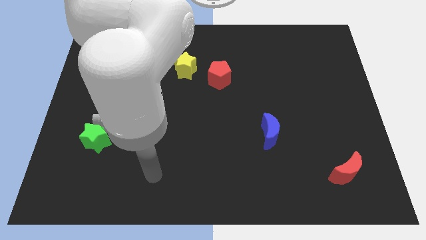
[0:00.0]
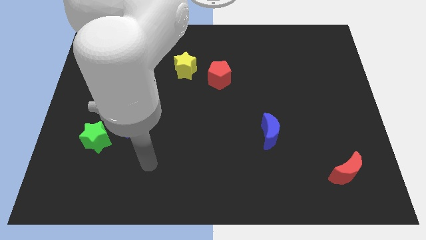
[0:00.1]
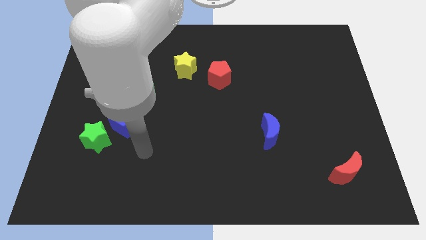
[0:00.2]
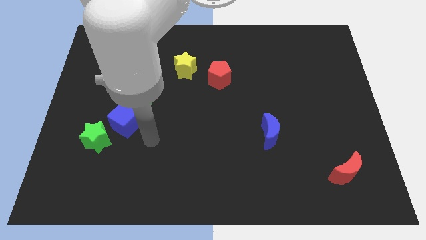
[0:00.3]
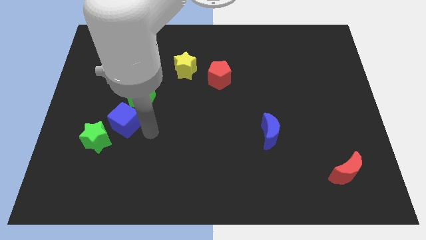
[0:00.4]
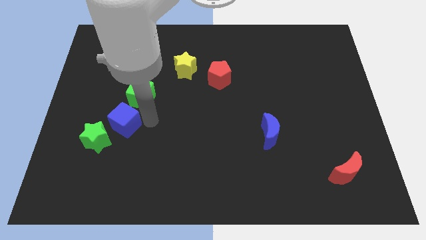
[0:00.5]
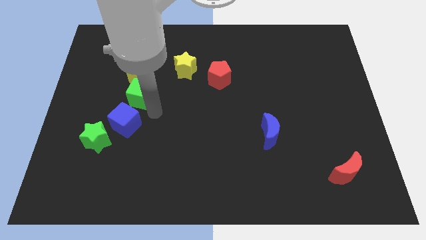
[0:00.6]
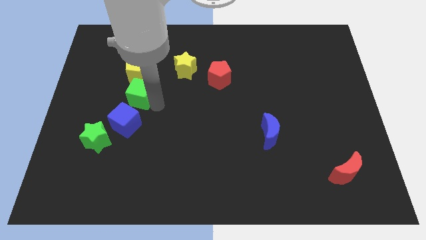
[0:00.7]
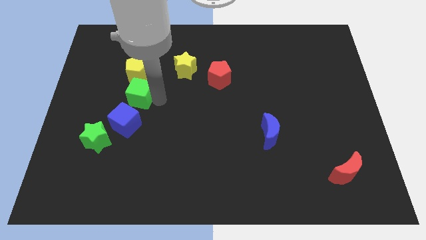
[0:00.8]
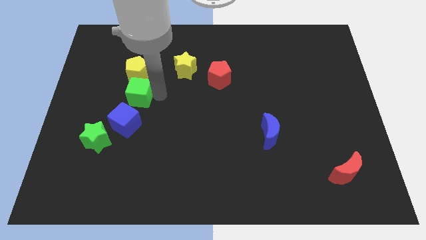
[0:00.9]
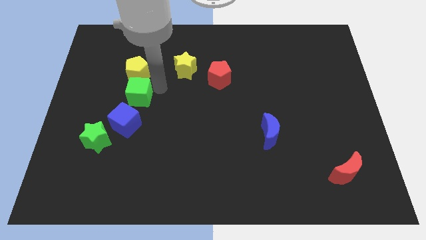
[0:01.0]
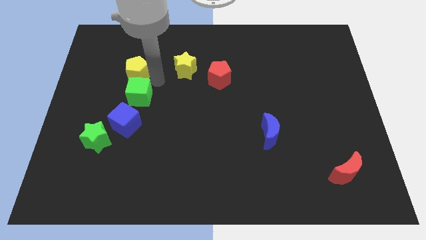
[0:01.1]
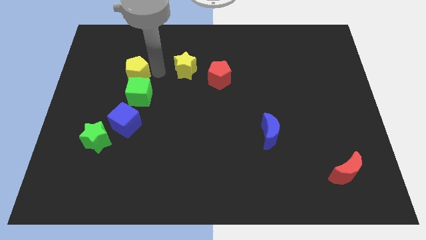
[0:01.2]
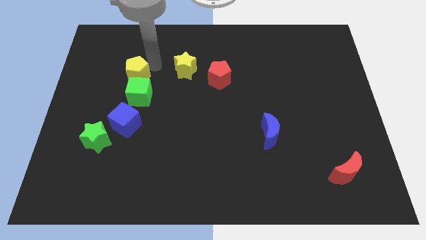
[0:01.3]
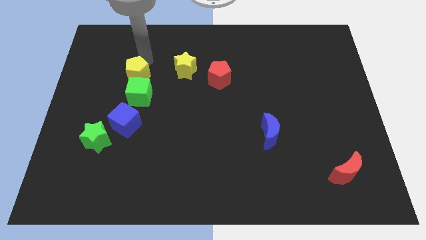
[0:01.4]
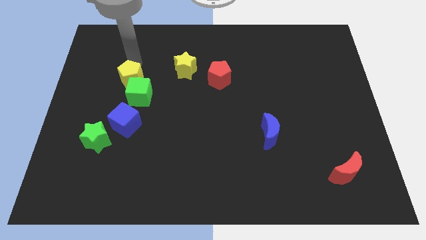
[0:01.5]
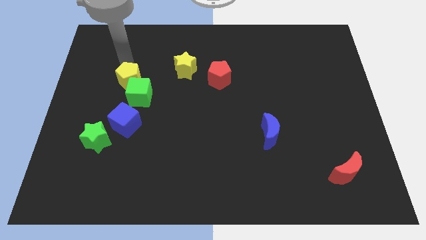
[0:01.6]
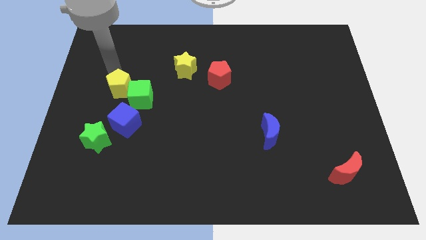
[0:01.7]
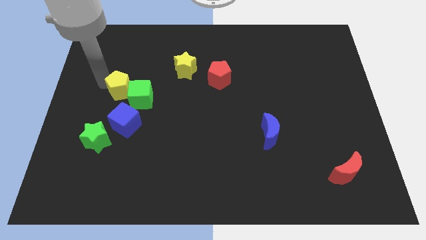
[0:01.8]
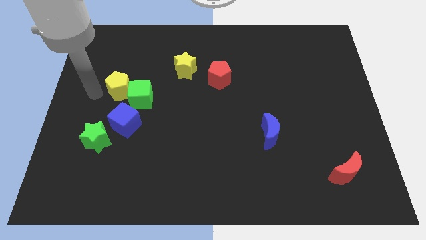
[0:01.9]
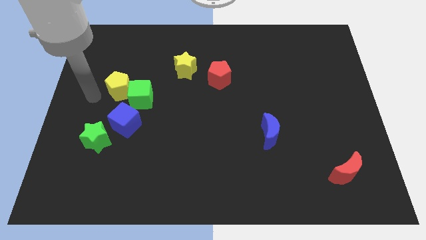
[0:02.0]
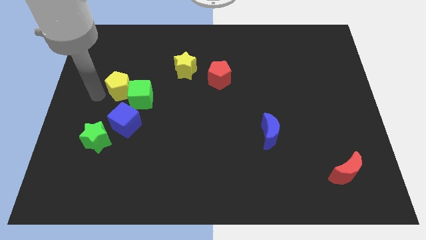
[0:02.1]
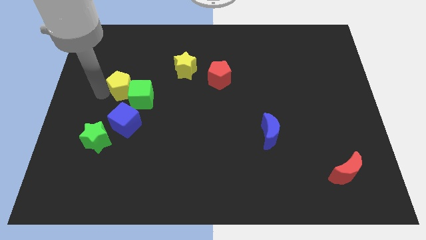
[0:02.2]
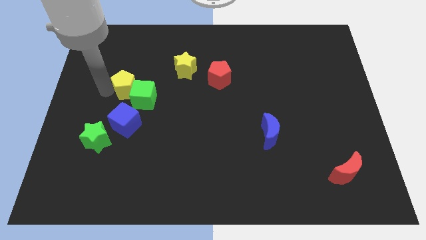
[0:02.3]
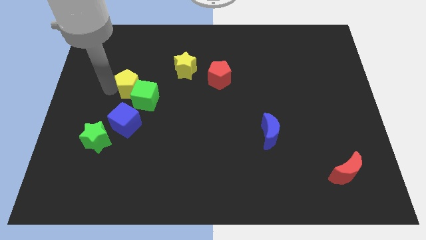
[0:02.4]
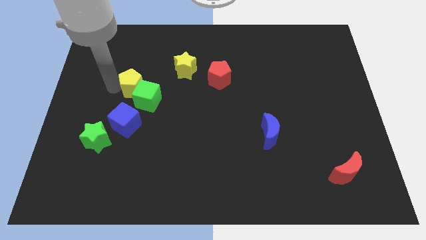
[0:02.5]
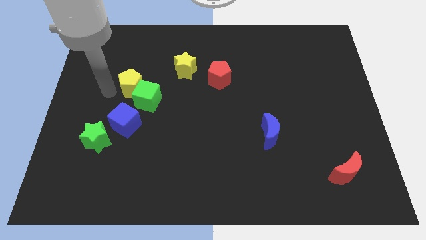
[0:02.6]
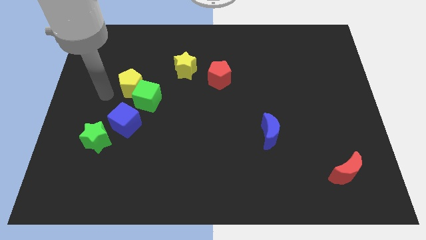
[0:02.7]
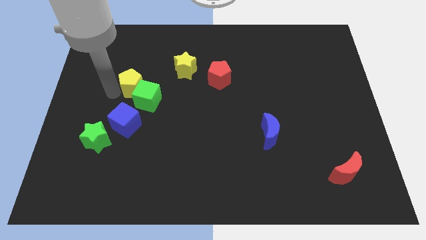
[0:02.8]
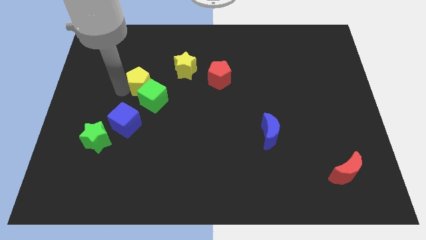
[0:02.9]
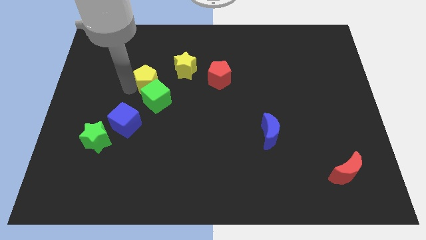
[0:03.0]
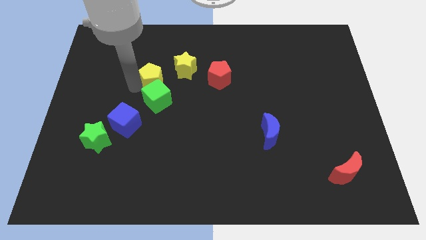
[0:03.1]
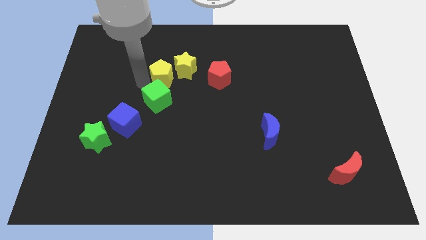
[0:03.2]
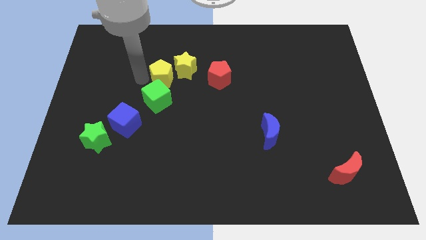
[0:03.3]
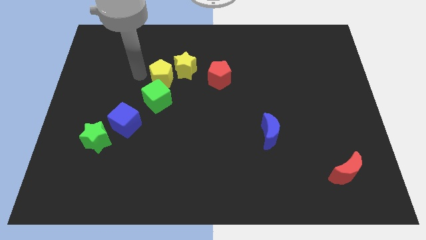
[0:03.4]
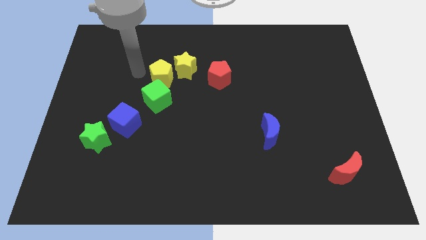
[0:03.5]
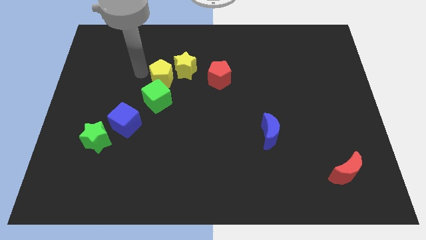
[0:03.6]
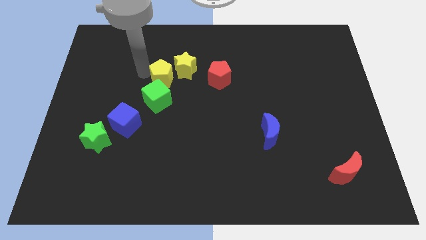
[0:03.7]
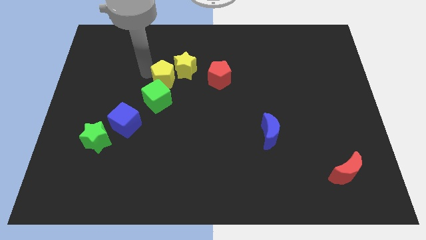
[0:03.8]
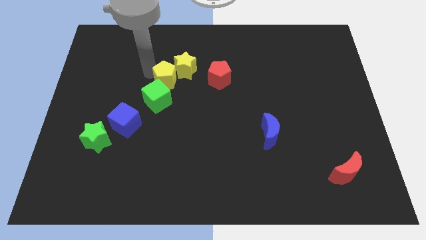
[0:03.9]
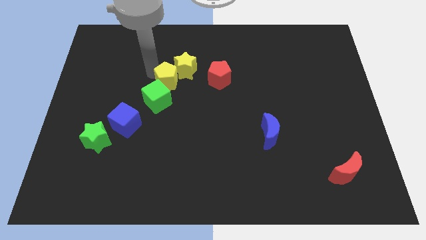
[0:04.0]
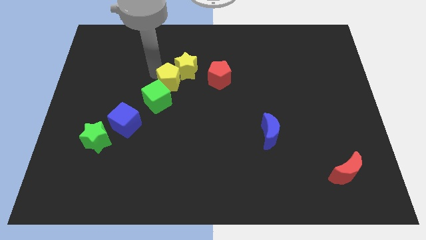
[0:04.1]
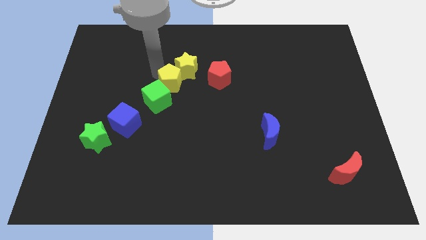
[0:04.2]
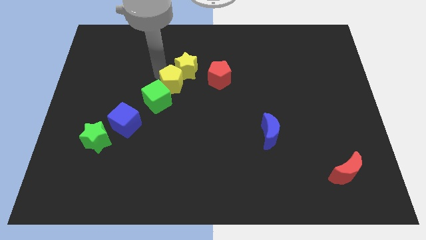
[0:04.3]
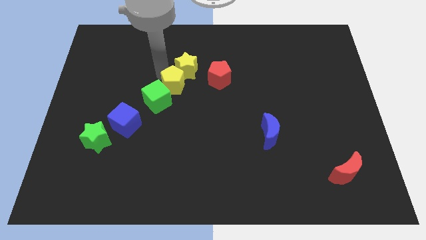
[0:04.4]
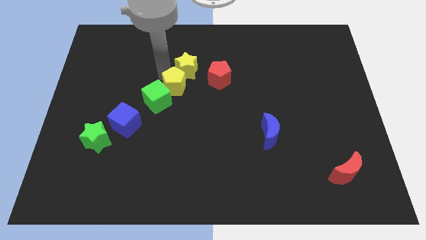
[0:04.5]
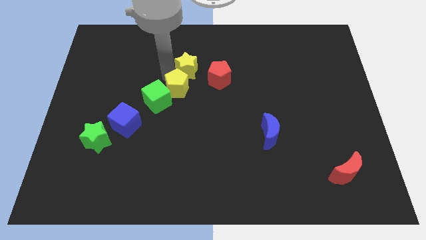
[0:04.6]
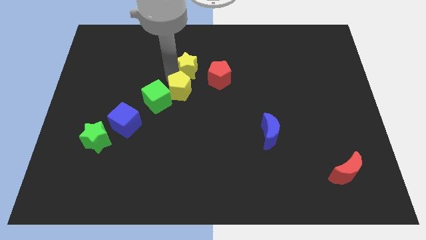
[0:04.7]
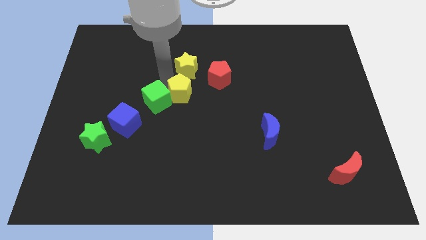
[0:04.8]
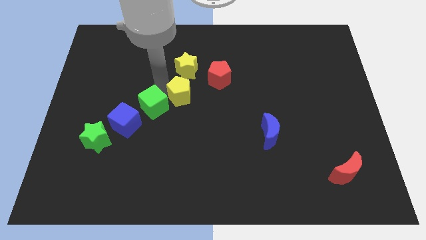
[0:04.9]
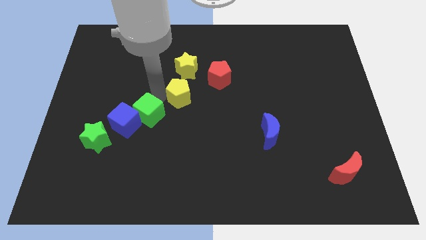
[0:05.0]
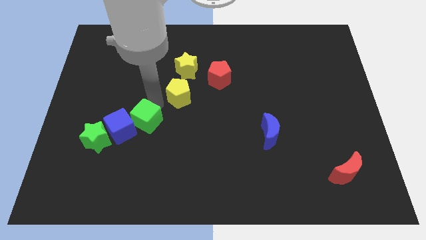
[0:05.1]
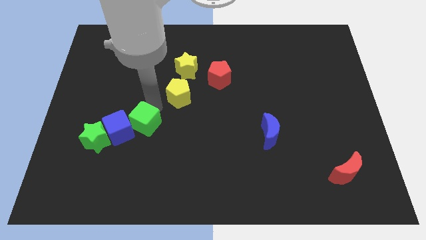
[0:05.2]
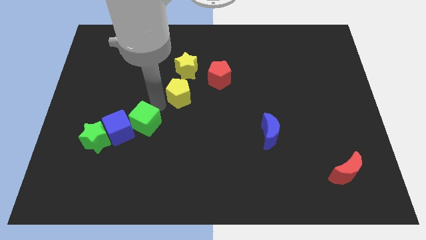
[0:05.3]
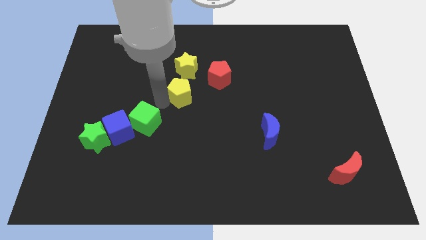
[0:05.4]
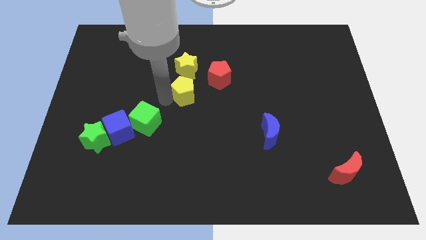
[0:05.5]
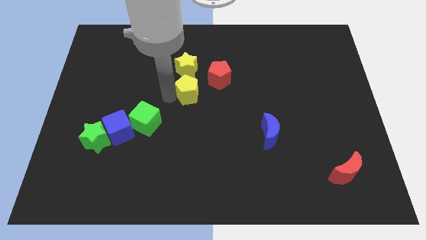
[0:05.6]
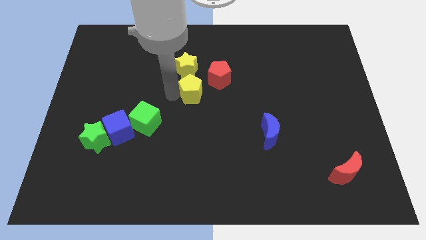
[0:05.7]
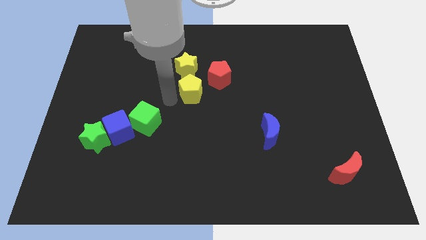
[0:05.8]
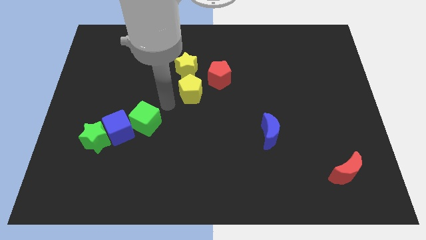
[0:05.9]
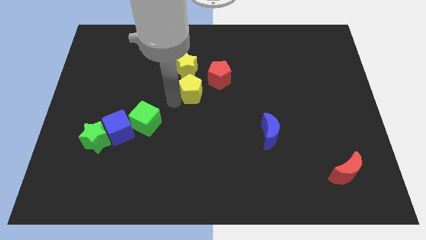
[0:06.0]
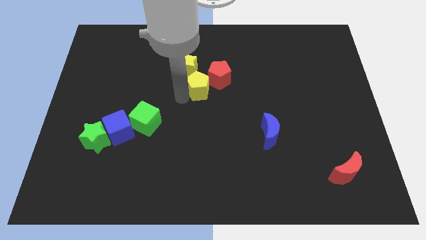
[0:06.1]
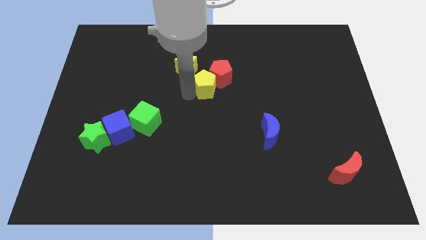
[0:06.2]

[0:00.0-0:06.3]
push the yellow pentagon towards the red pentagon

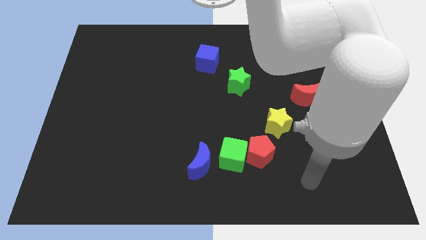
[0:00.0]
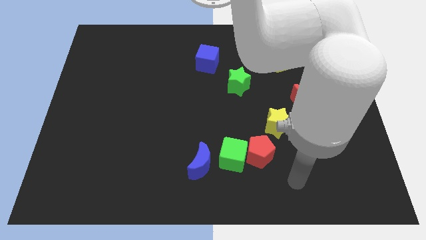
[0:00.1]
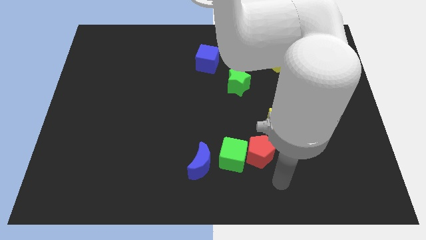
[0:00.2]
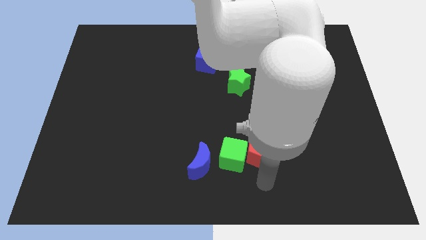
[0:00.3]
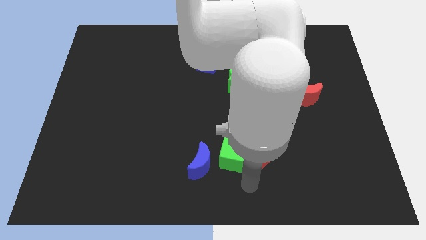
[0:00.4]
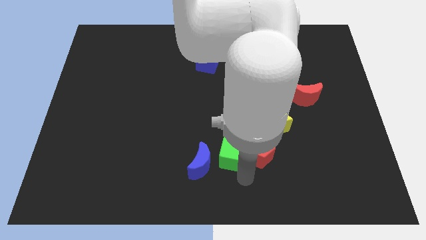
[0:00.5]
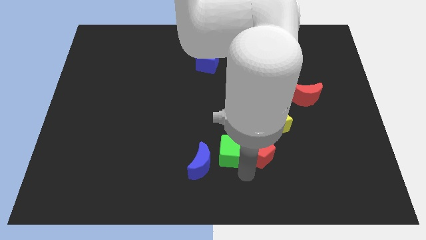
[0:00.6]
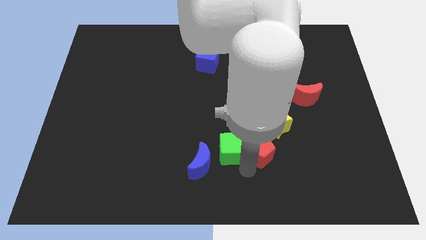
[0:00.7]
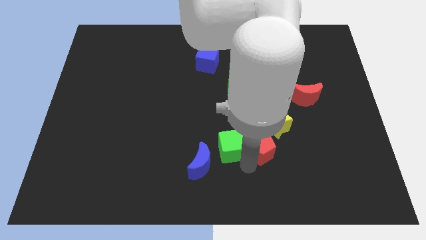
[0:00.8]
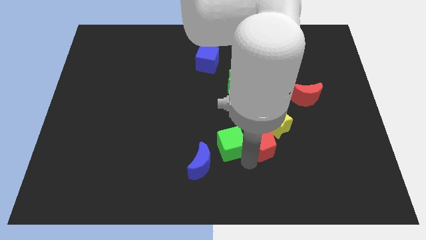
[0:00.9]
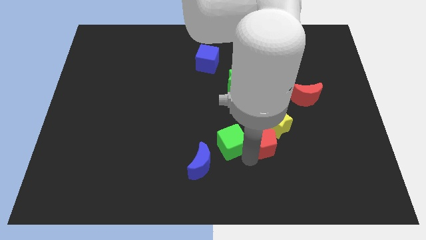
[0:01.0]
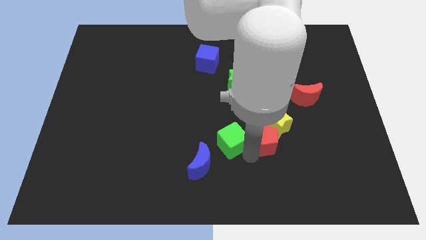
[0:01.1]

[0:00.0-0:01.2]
push the red pentagon to the yellow star
